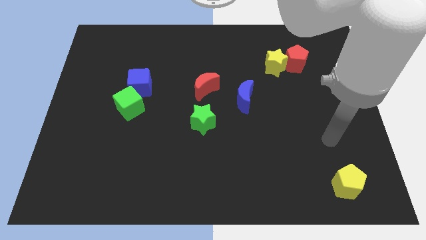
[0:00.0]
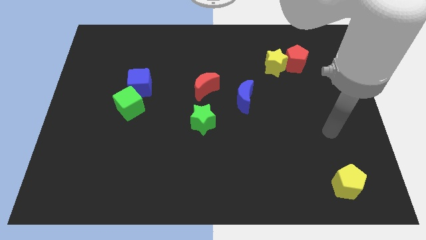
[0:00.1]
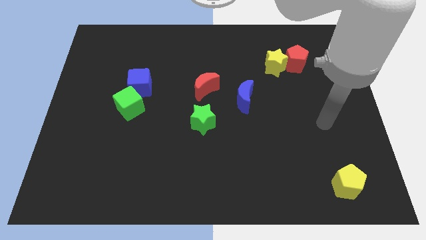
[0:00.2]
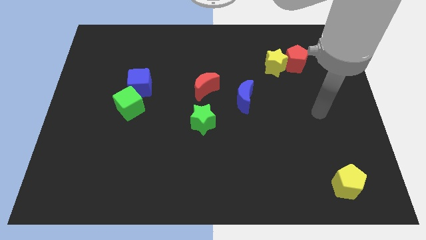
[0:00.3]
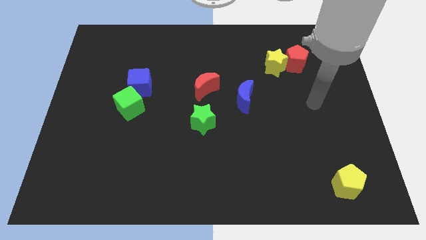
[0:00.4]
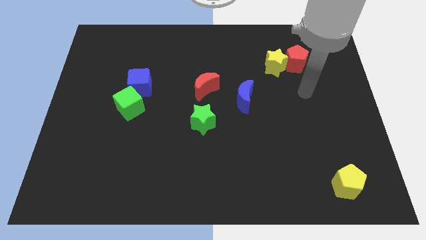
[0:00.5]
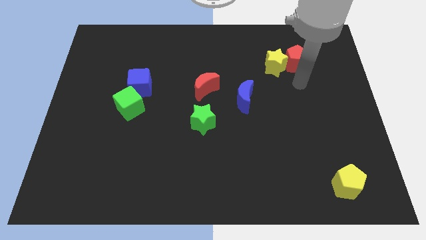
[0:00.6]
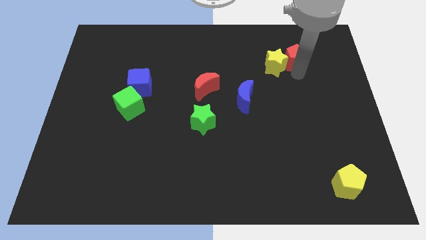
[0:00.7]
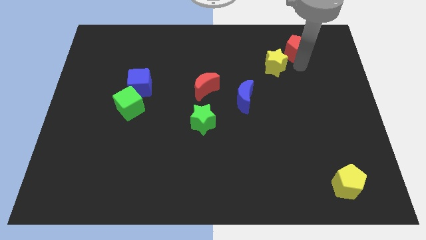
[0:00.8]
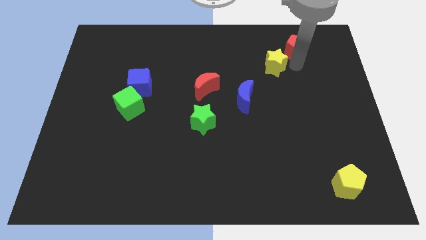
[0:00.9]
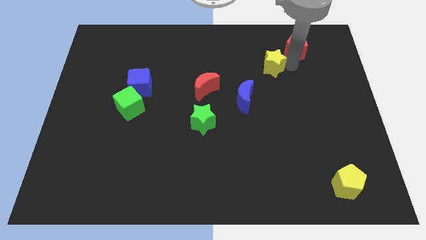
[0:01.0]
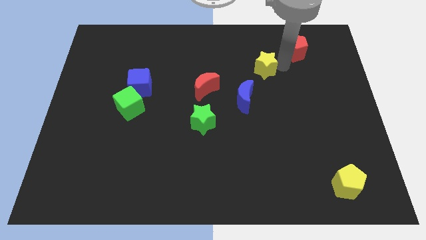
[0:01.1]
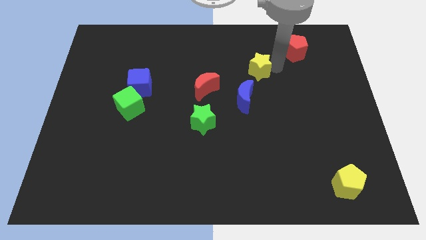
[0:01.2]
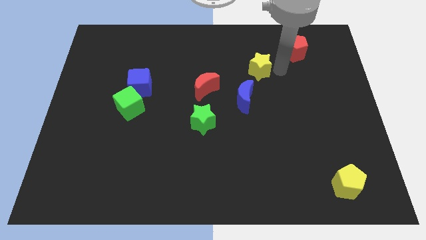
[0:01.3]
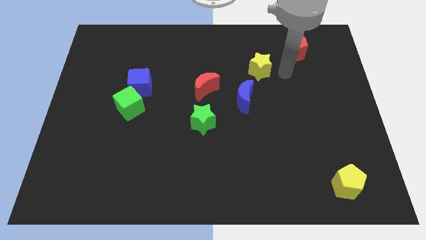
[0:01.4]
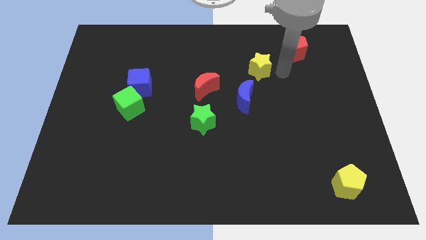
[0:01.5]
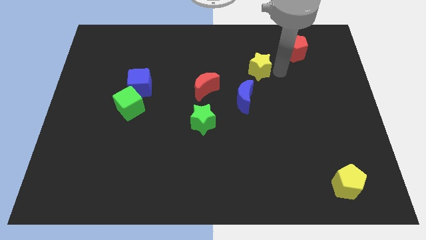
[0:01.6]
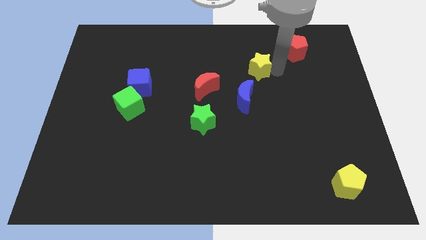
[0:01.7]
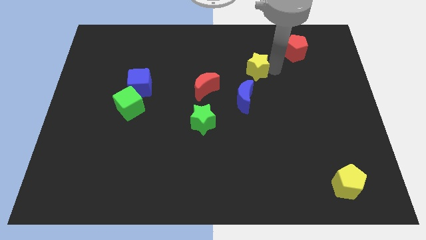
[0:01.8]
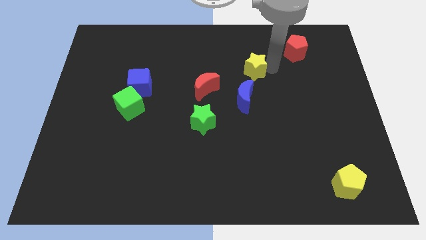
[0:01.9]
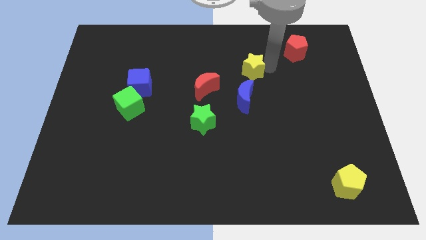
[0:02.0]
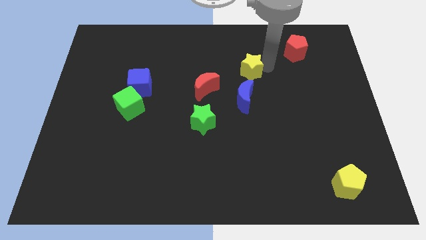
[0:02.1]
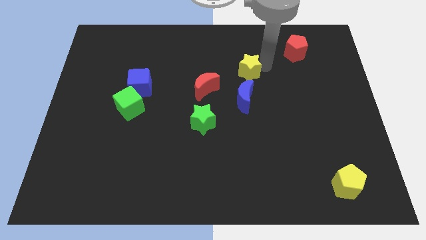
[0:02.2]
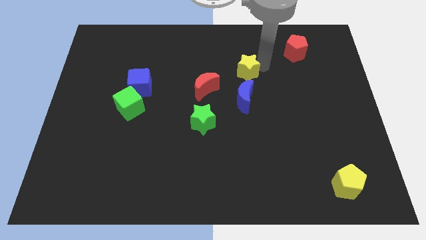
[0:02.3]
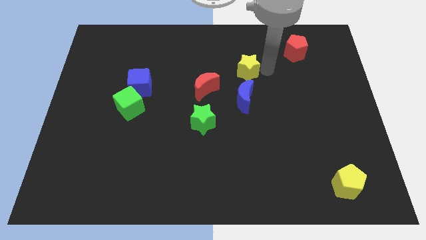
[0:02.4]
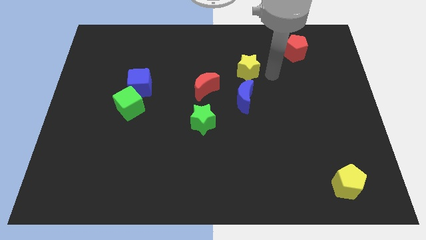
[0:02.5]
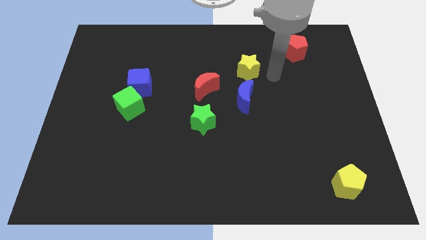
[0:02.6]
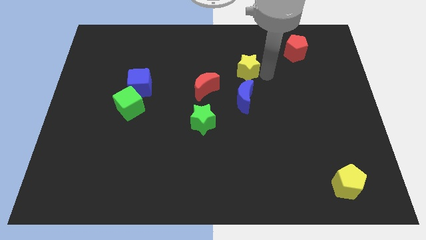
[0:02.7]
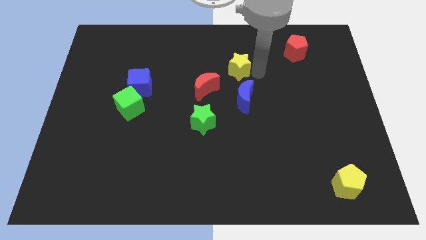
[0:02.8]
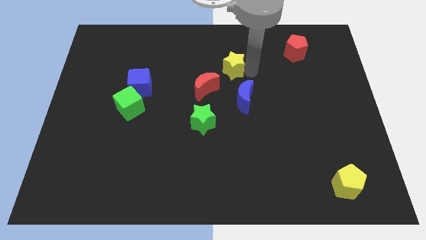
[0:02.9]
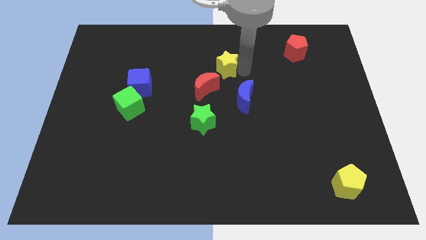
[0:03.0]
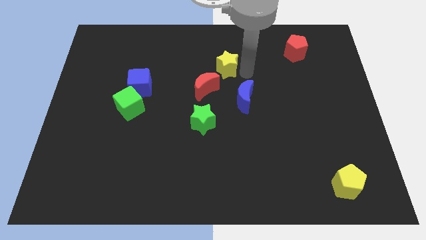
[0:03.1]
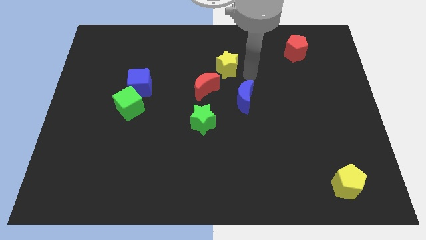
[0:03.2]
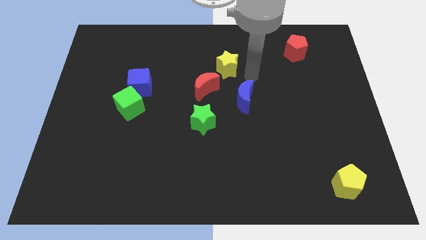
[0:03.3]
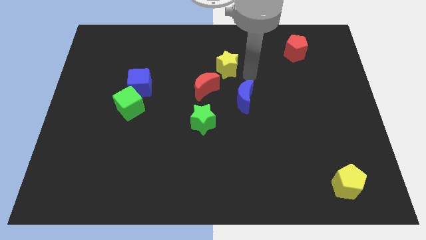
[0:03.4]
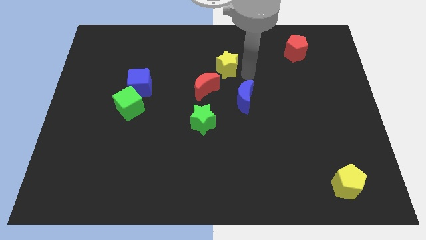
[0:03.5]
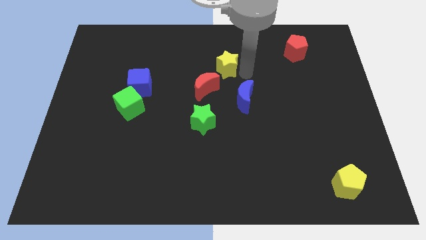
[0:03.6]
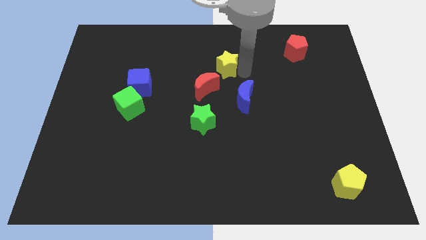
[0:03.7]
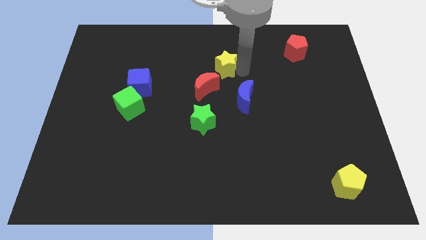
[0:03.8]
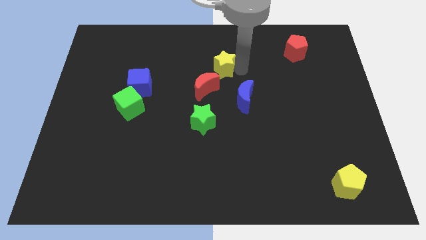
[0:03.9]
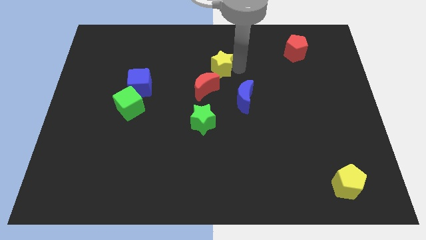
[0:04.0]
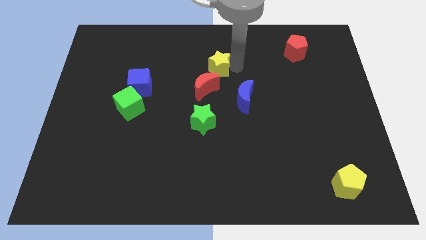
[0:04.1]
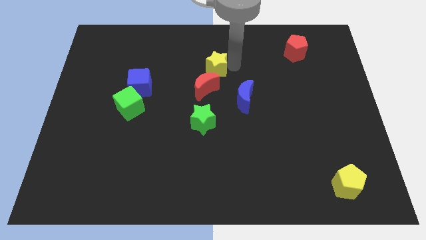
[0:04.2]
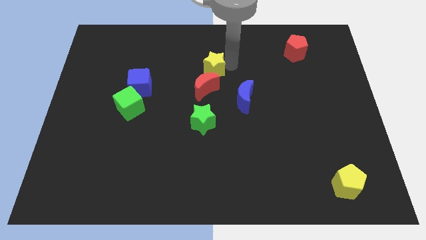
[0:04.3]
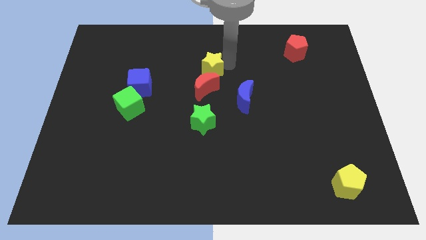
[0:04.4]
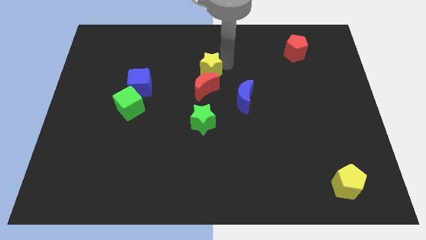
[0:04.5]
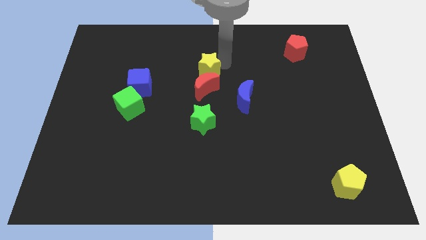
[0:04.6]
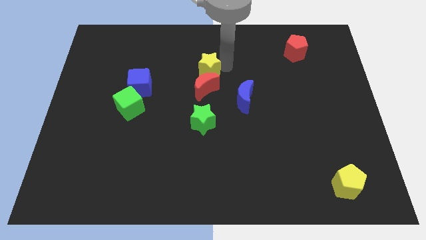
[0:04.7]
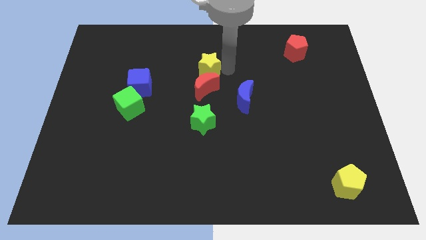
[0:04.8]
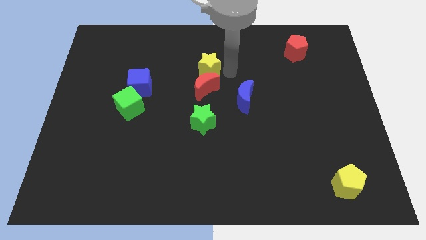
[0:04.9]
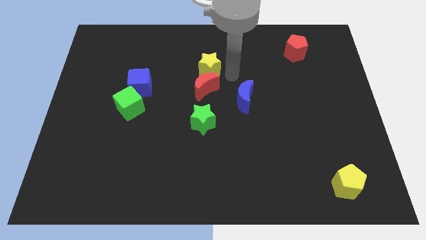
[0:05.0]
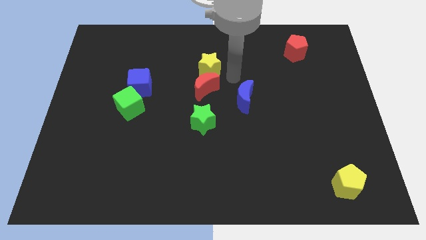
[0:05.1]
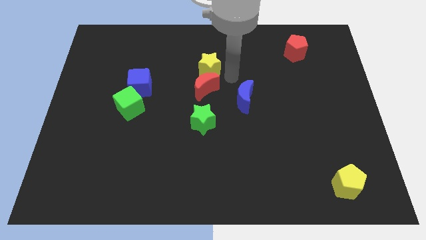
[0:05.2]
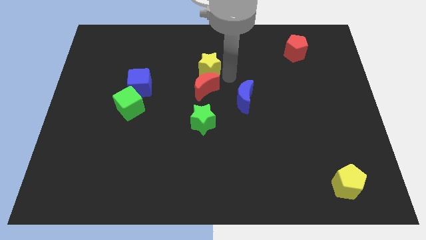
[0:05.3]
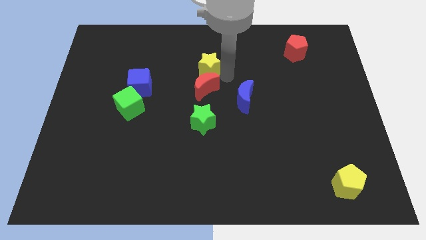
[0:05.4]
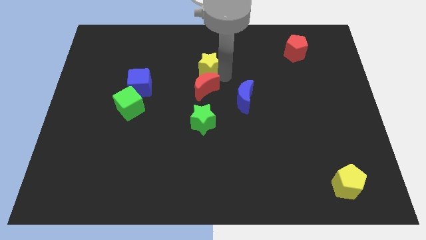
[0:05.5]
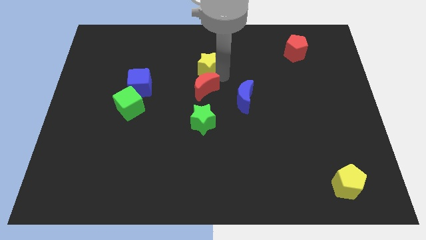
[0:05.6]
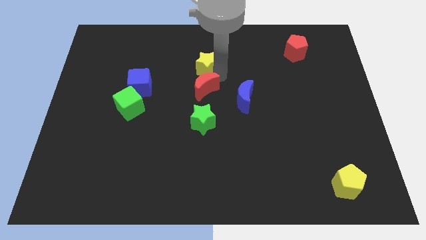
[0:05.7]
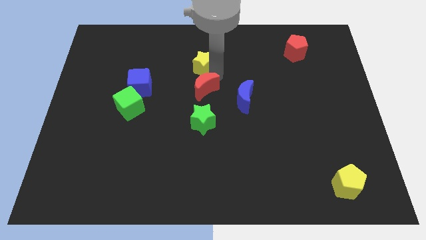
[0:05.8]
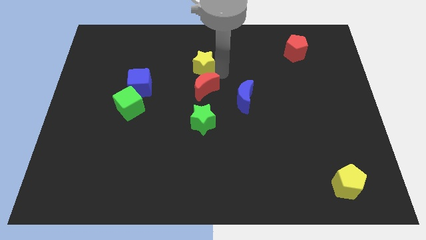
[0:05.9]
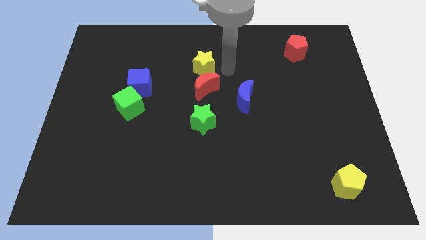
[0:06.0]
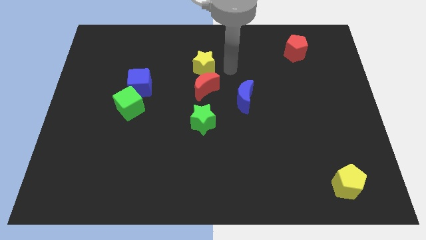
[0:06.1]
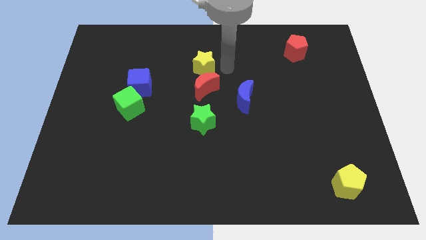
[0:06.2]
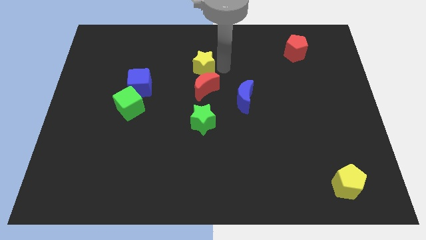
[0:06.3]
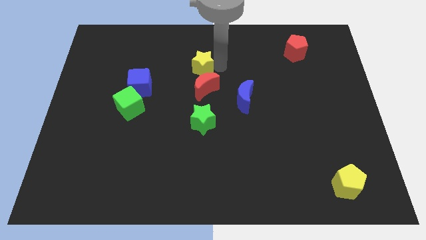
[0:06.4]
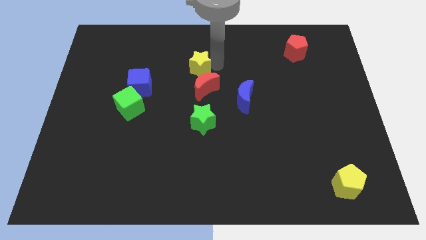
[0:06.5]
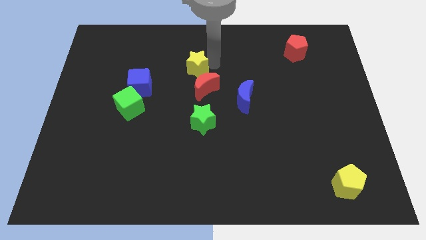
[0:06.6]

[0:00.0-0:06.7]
push the yellow star to the left

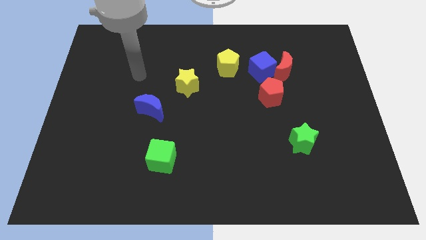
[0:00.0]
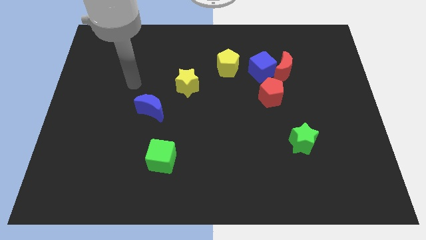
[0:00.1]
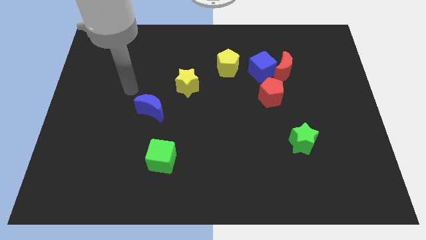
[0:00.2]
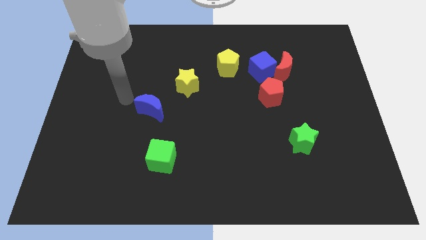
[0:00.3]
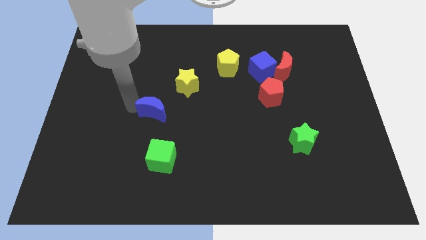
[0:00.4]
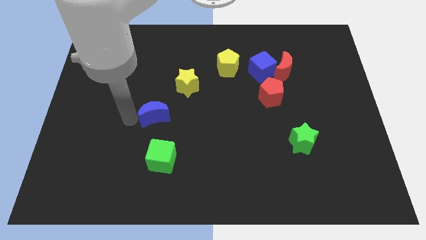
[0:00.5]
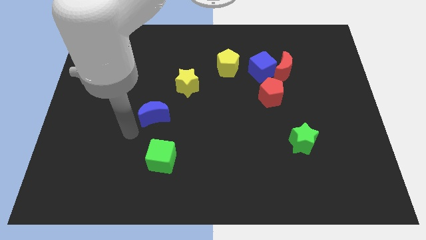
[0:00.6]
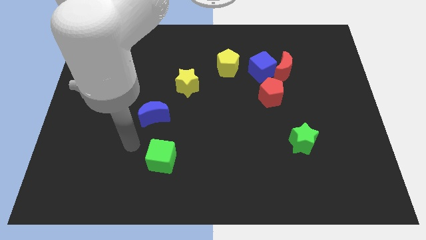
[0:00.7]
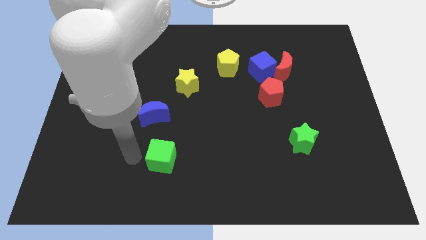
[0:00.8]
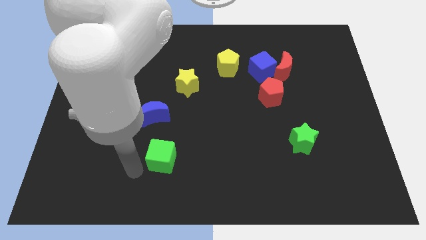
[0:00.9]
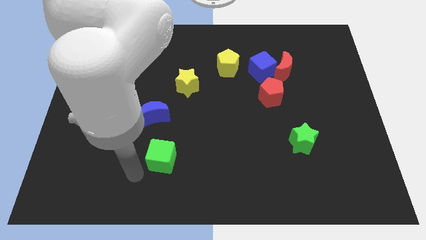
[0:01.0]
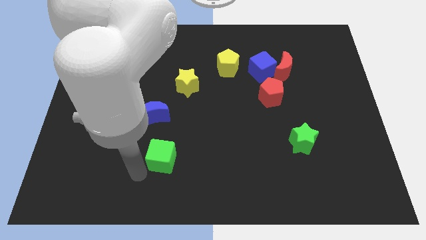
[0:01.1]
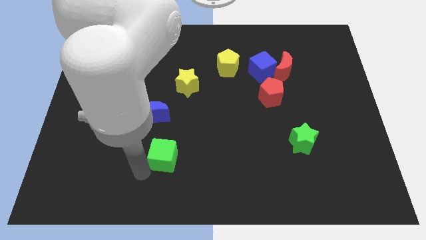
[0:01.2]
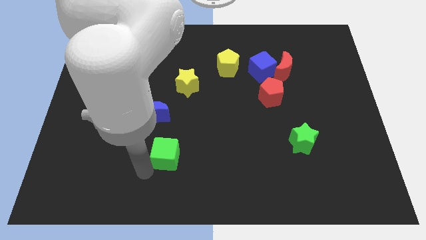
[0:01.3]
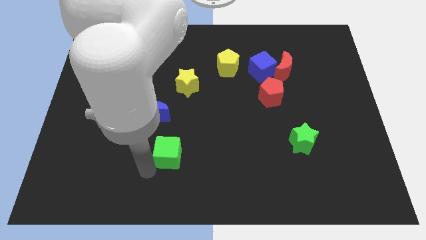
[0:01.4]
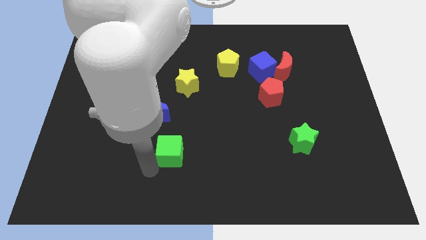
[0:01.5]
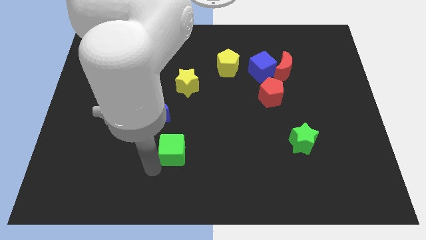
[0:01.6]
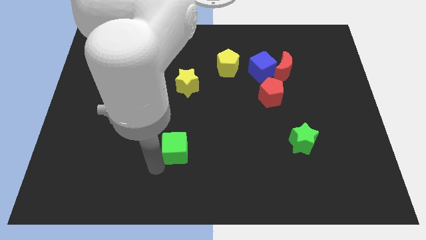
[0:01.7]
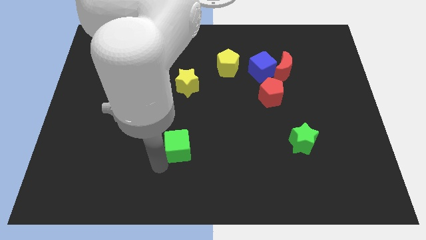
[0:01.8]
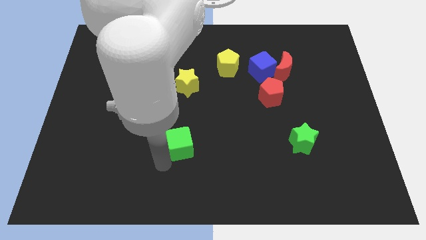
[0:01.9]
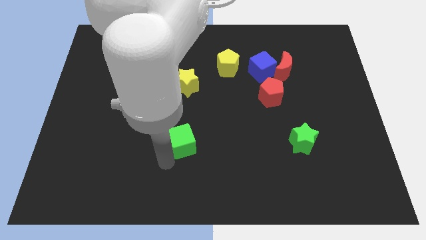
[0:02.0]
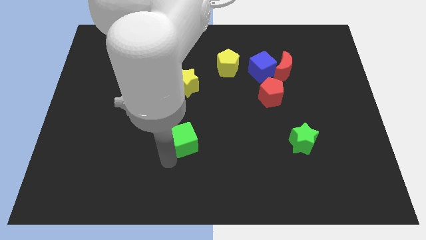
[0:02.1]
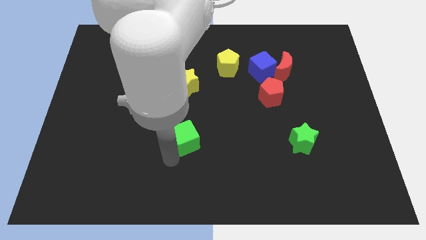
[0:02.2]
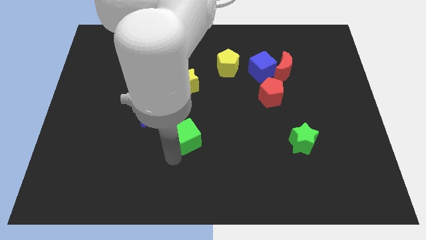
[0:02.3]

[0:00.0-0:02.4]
push the green cube up and to the right a bit
